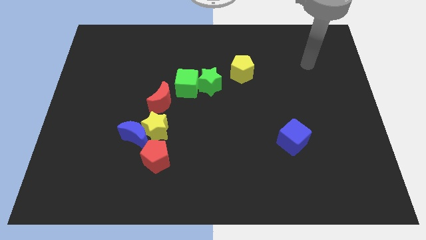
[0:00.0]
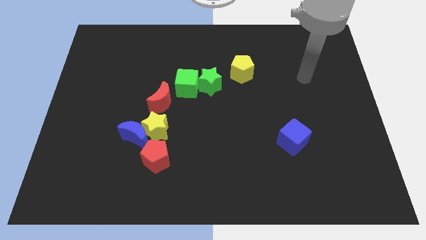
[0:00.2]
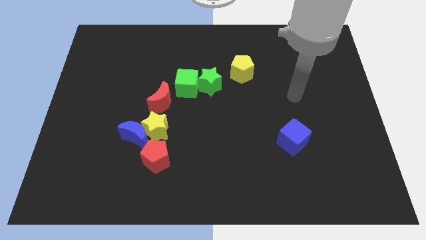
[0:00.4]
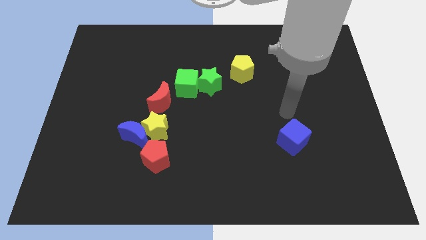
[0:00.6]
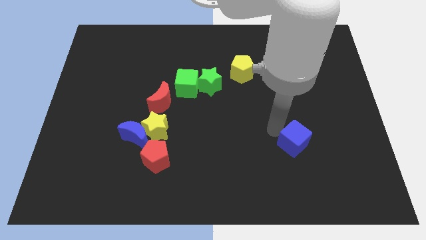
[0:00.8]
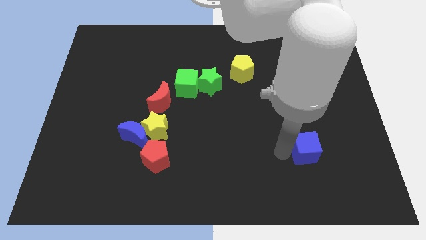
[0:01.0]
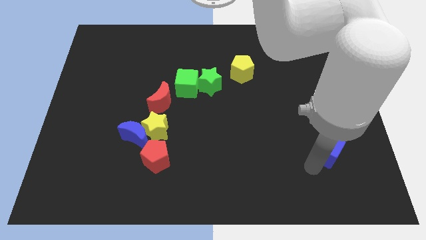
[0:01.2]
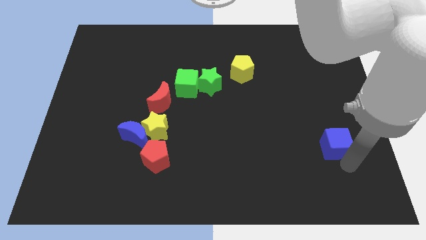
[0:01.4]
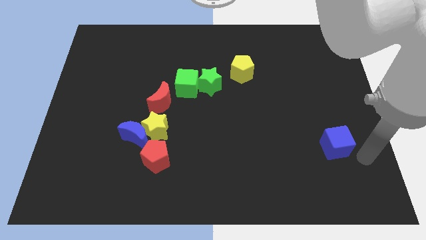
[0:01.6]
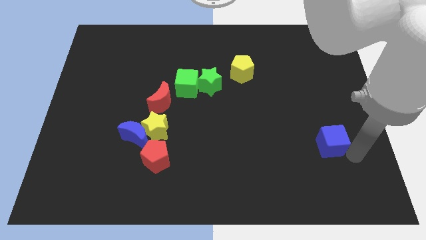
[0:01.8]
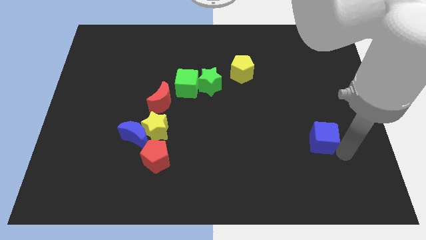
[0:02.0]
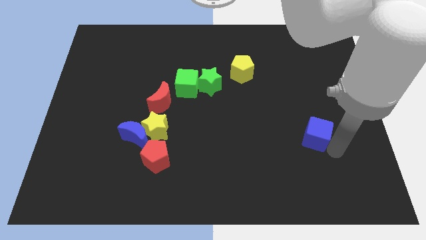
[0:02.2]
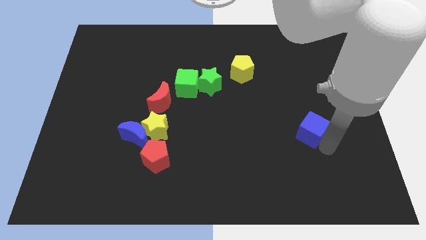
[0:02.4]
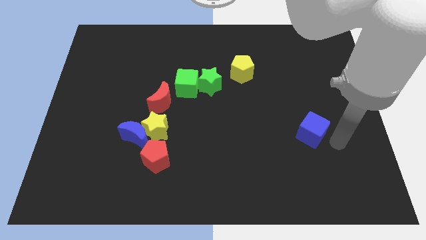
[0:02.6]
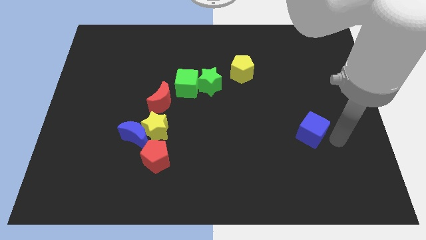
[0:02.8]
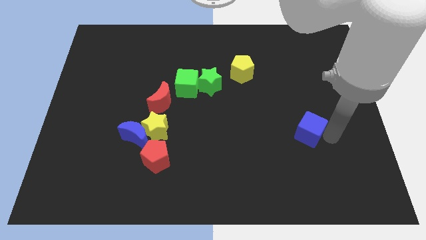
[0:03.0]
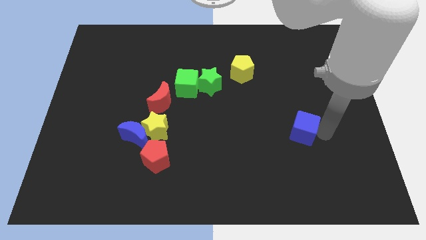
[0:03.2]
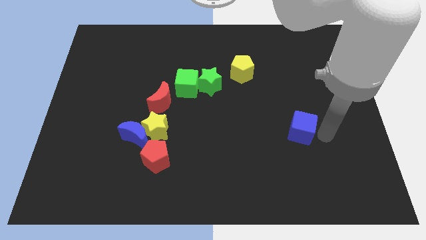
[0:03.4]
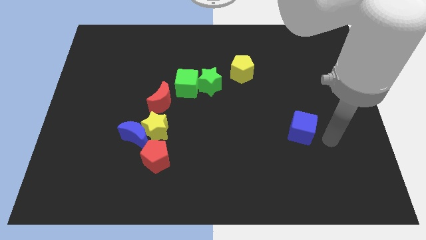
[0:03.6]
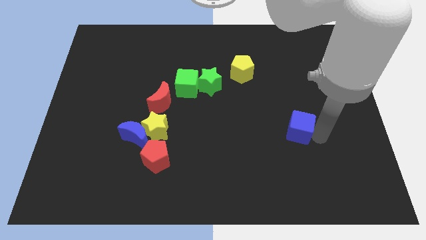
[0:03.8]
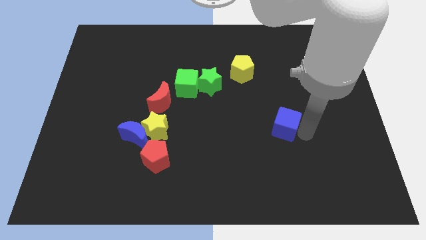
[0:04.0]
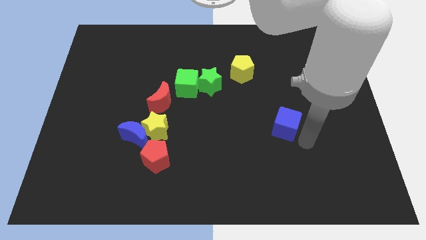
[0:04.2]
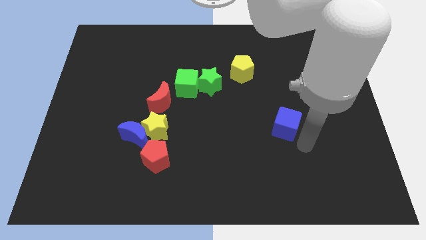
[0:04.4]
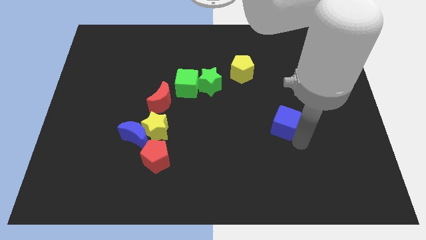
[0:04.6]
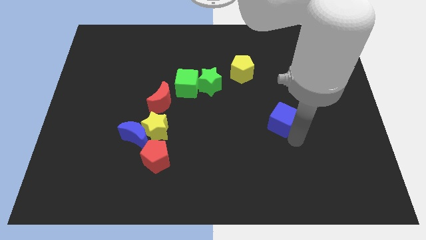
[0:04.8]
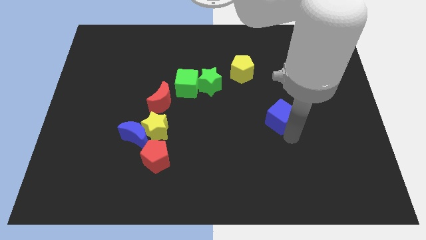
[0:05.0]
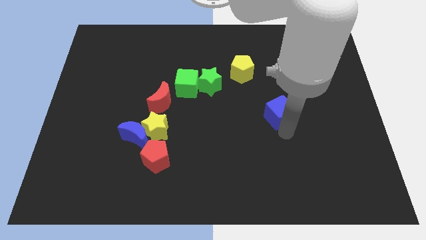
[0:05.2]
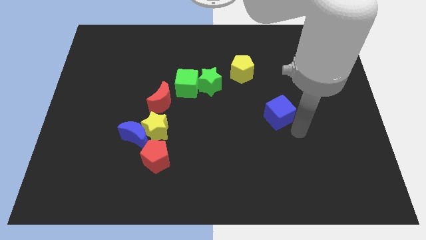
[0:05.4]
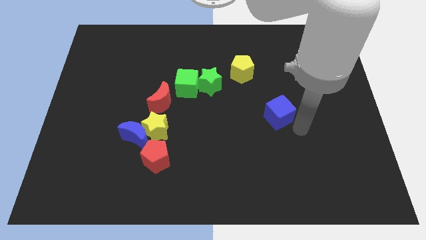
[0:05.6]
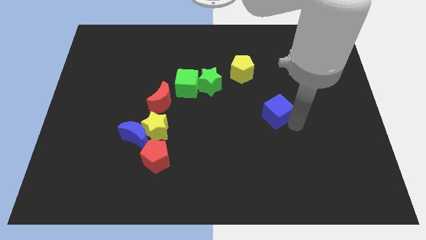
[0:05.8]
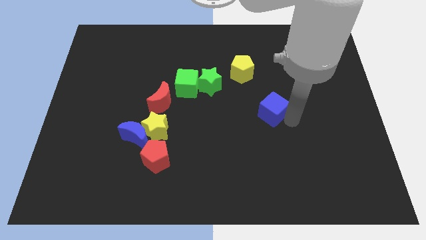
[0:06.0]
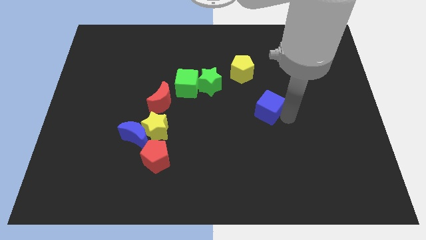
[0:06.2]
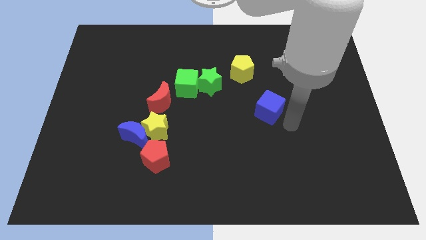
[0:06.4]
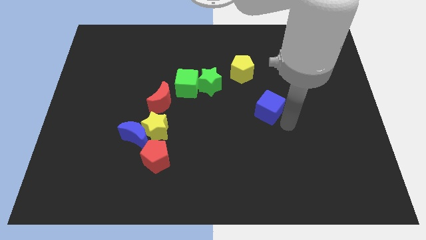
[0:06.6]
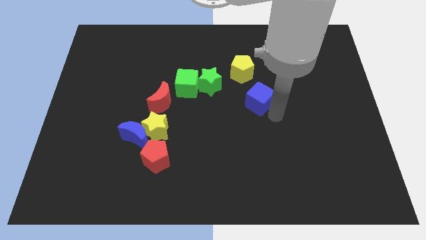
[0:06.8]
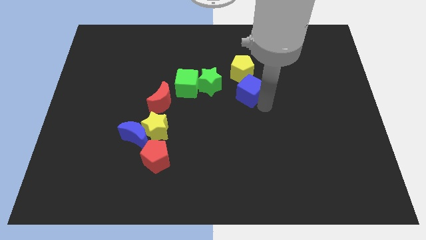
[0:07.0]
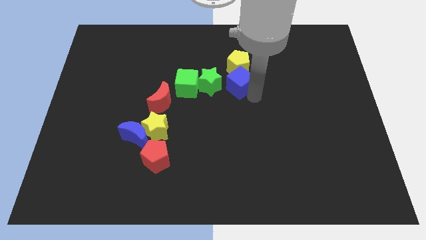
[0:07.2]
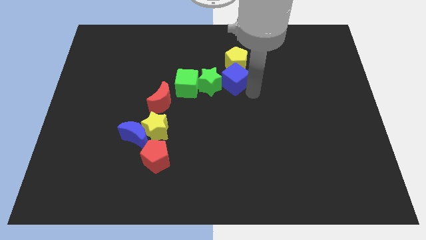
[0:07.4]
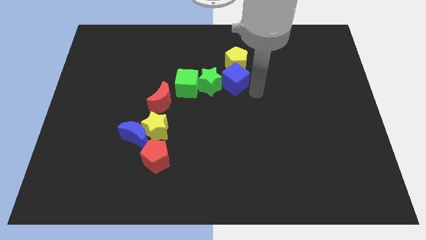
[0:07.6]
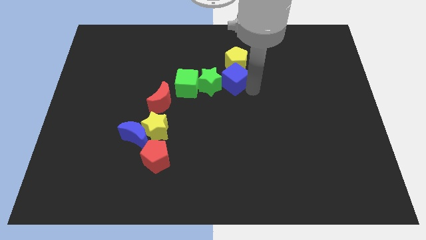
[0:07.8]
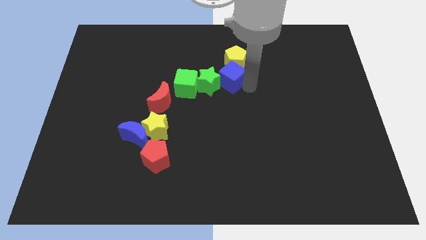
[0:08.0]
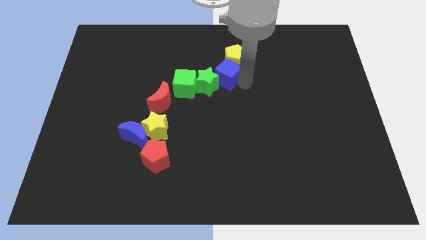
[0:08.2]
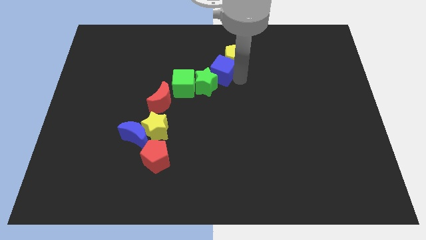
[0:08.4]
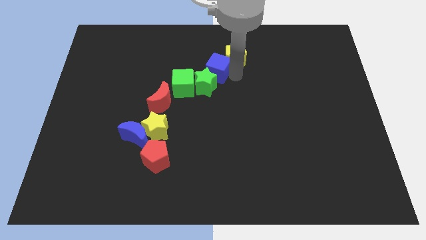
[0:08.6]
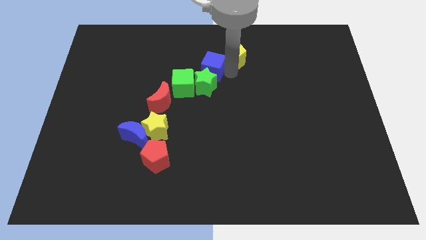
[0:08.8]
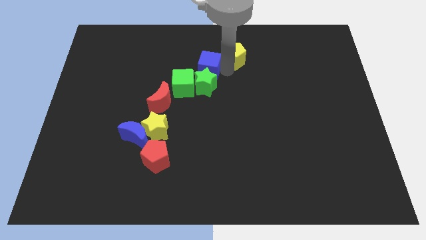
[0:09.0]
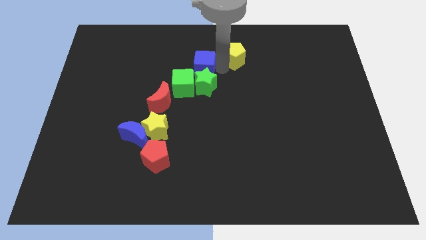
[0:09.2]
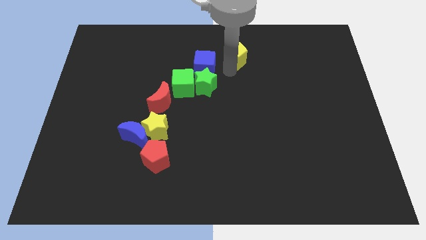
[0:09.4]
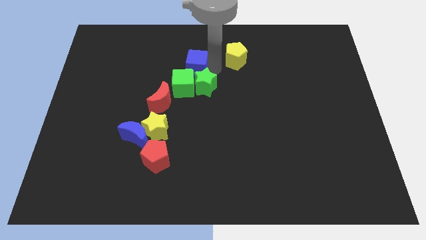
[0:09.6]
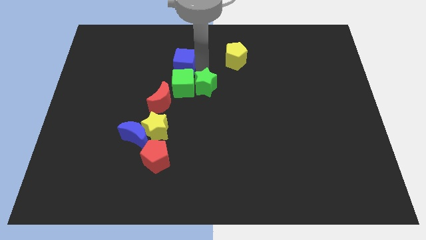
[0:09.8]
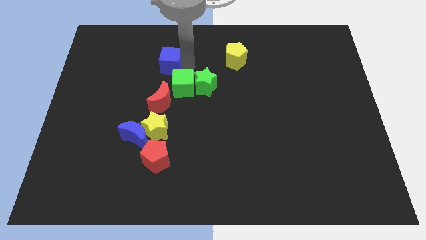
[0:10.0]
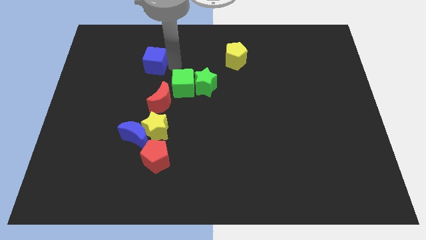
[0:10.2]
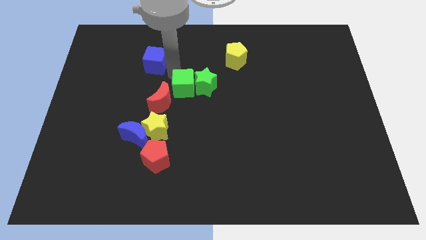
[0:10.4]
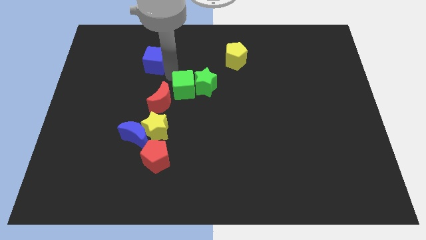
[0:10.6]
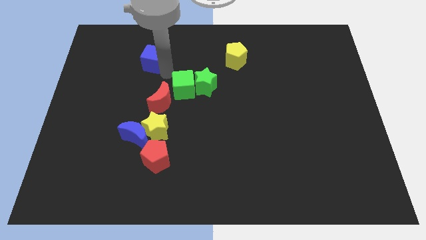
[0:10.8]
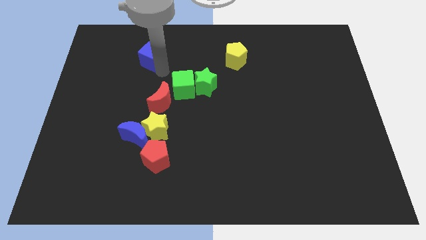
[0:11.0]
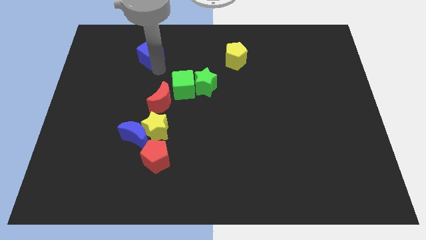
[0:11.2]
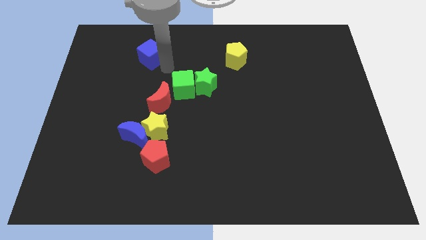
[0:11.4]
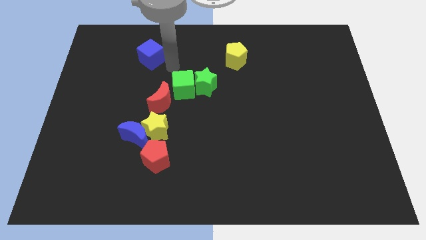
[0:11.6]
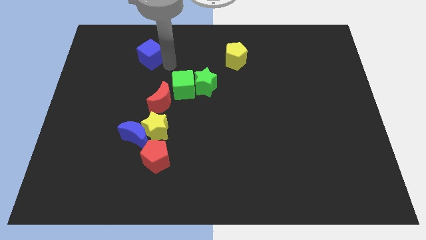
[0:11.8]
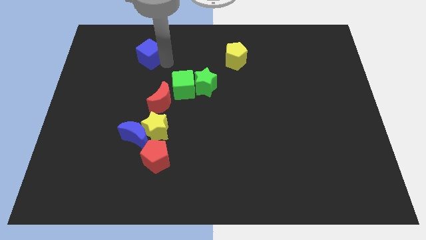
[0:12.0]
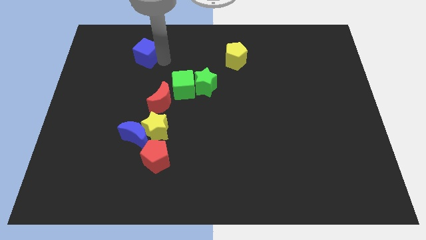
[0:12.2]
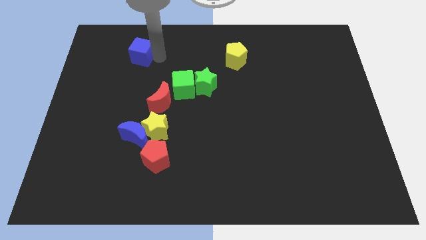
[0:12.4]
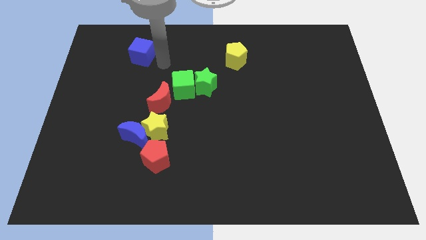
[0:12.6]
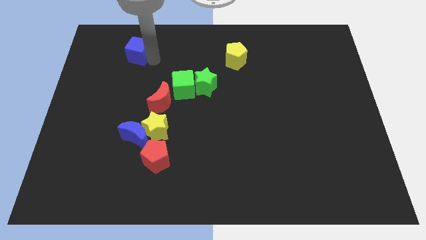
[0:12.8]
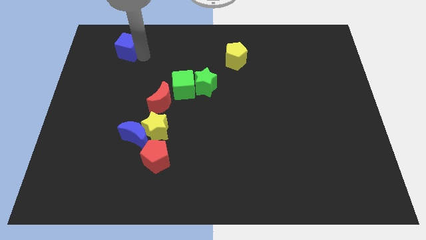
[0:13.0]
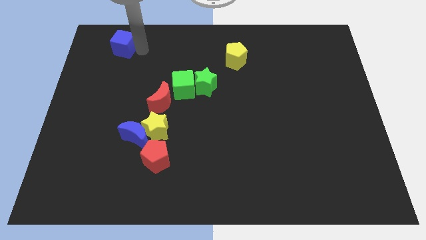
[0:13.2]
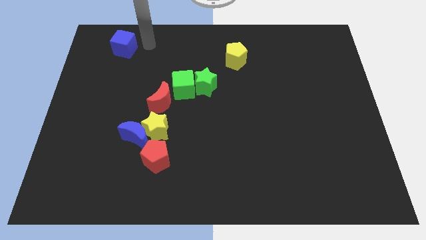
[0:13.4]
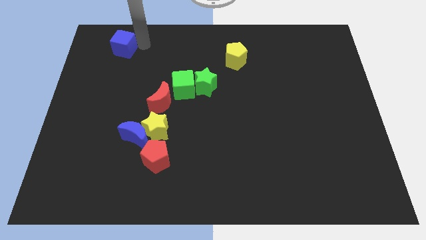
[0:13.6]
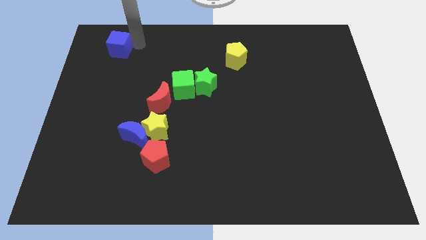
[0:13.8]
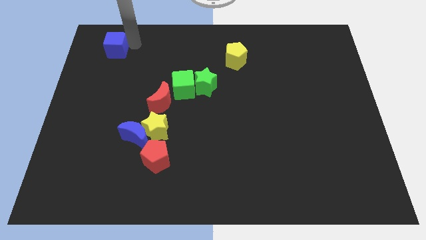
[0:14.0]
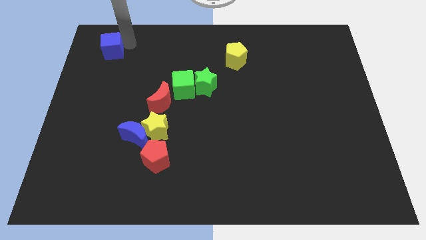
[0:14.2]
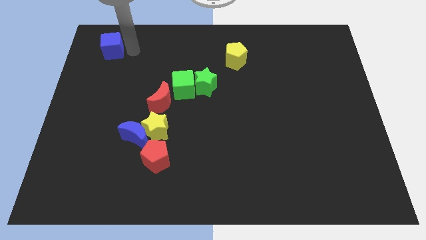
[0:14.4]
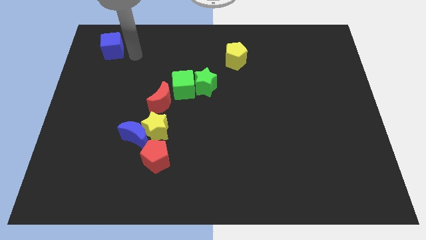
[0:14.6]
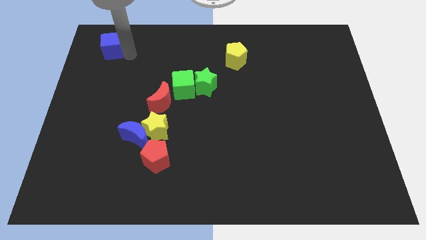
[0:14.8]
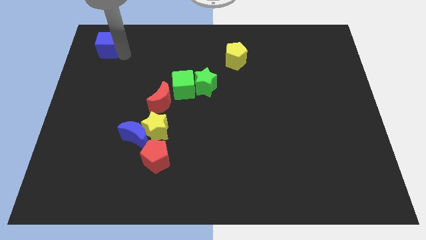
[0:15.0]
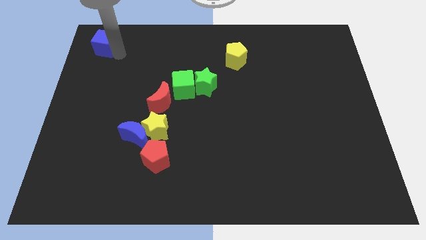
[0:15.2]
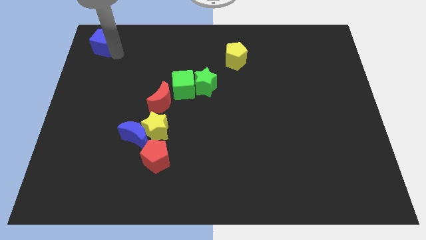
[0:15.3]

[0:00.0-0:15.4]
slide the blue cube to the top left of the board
